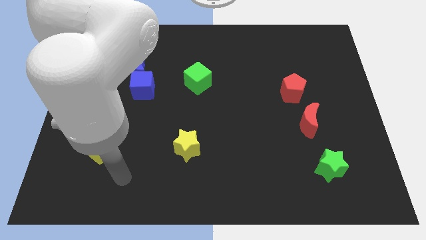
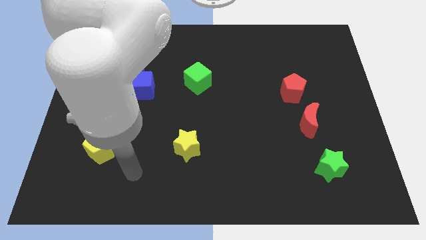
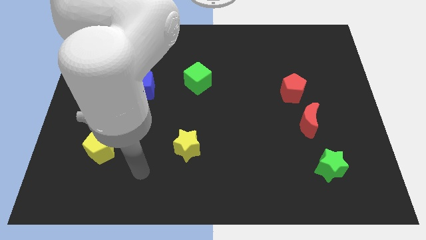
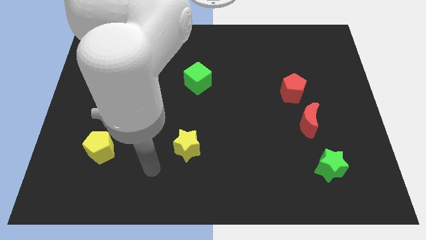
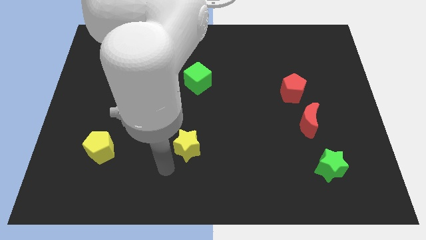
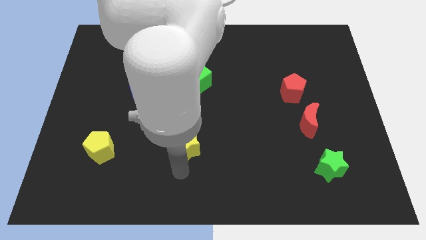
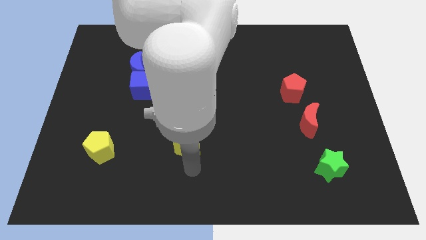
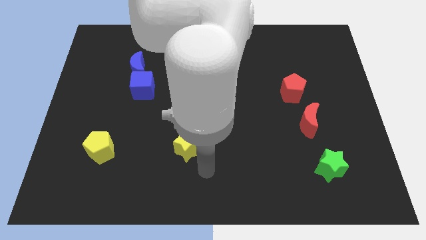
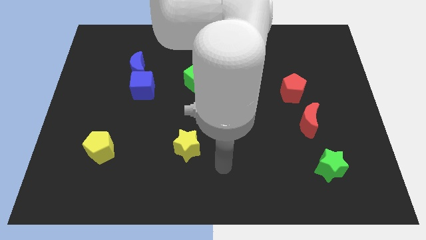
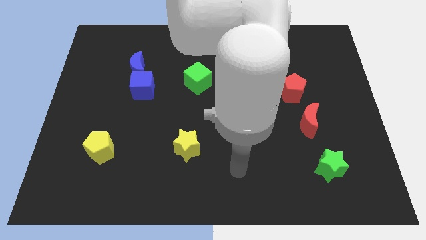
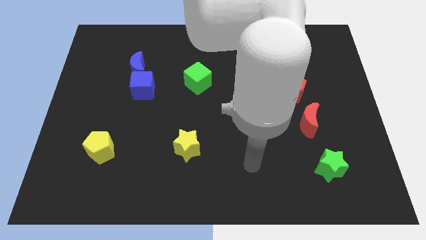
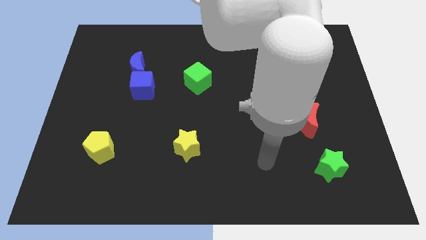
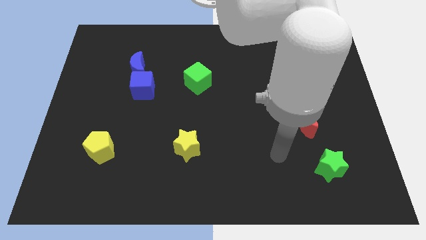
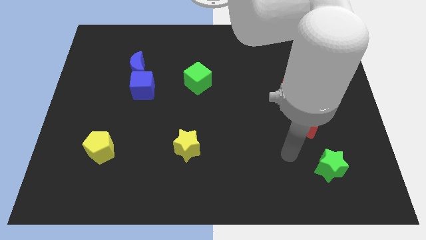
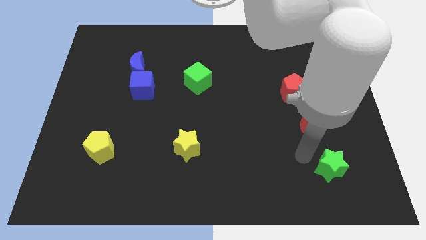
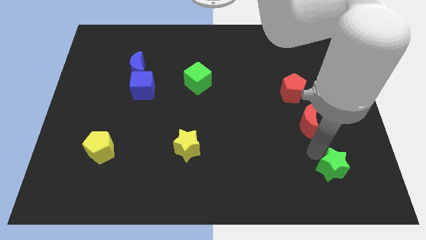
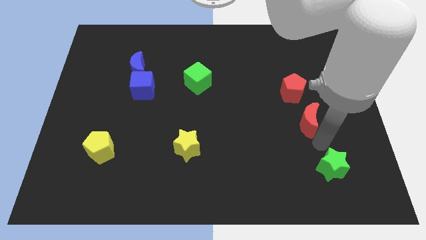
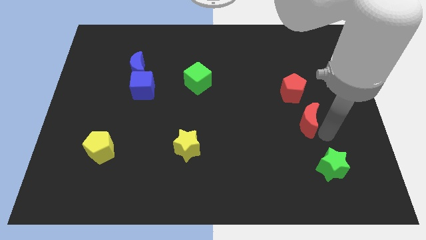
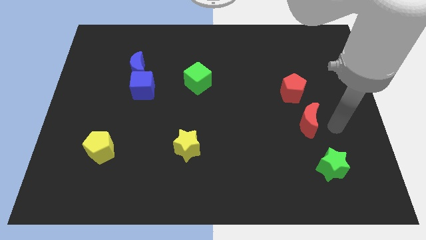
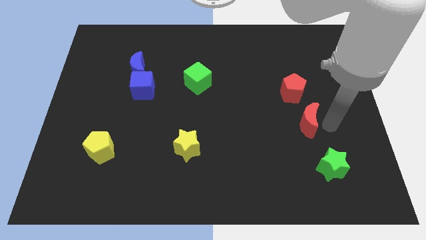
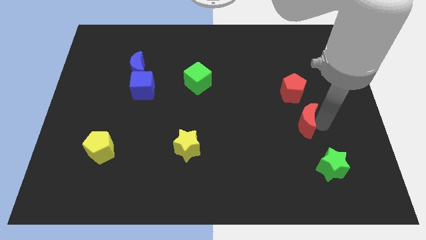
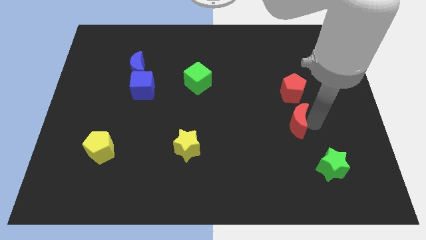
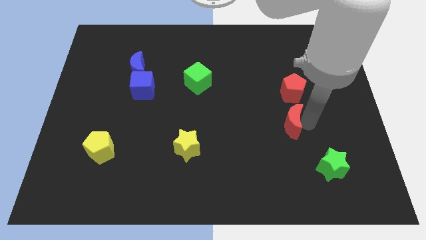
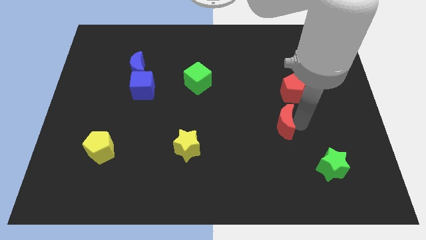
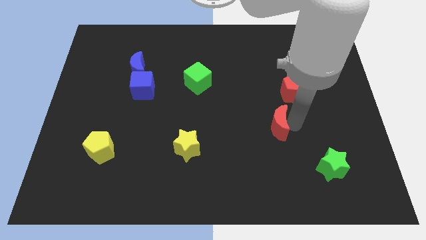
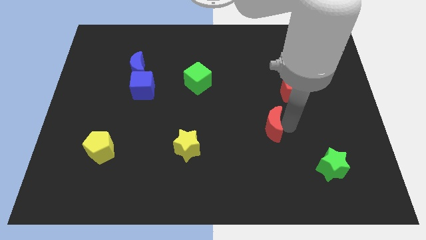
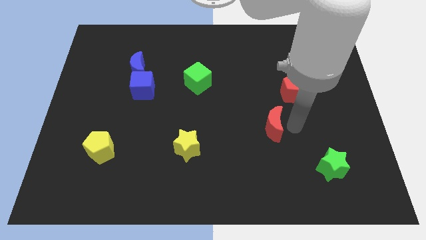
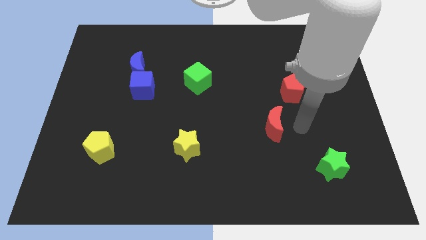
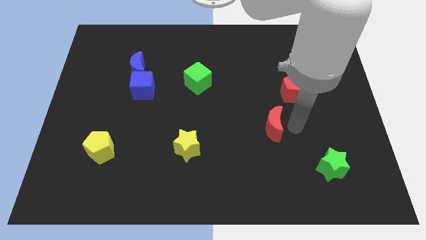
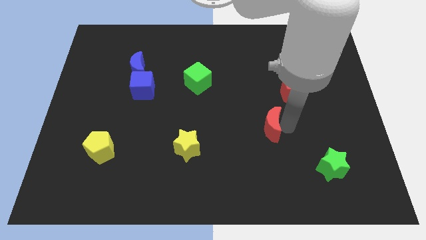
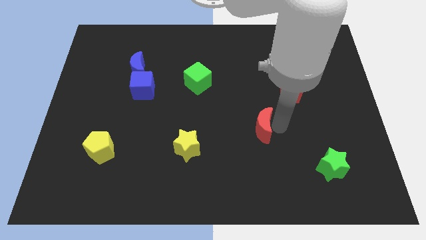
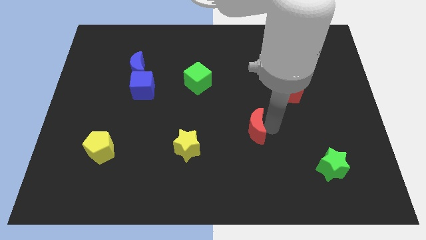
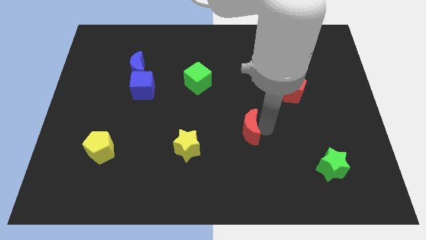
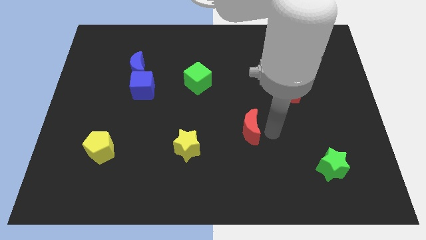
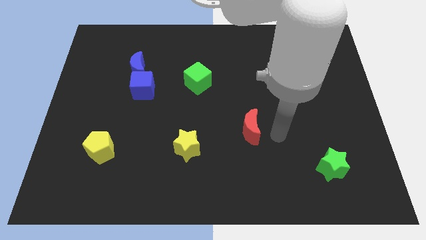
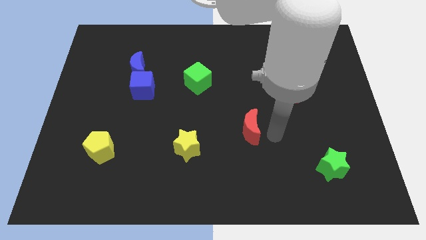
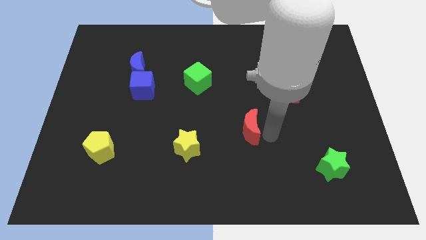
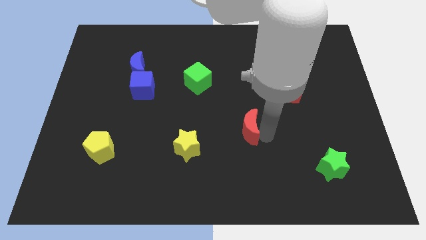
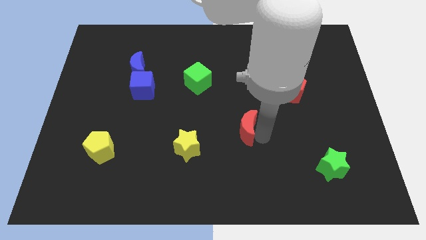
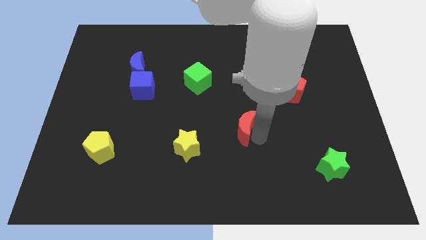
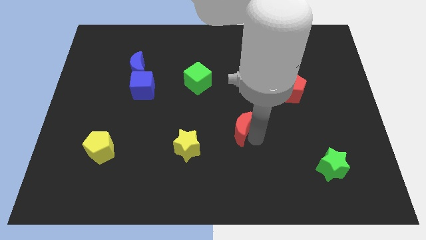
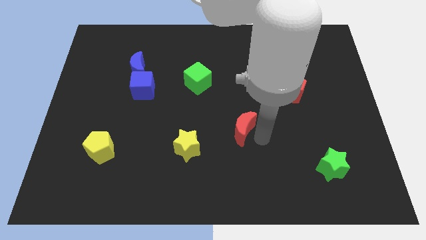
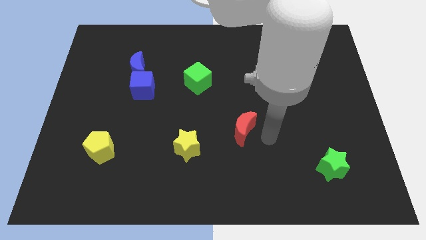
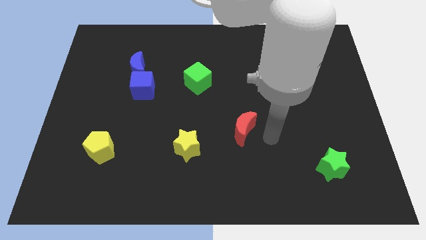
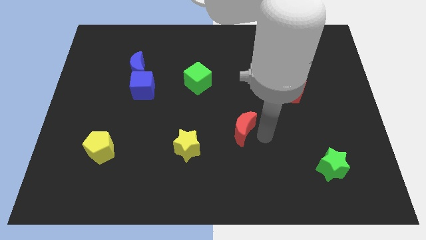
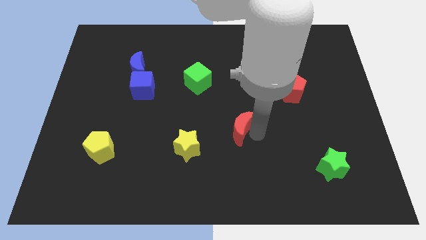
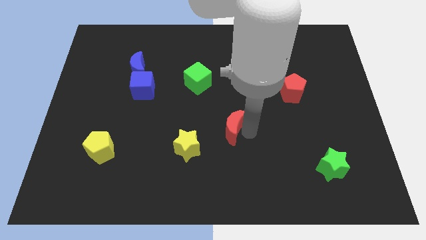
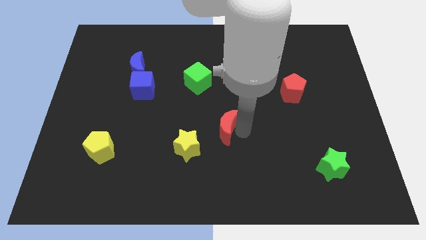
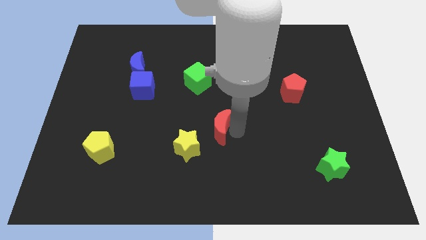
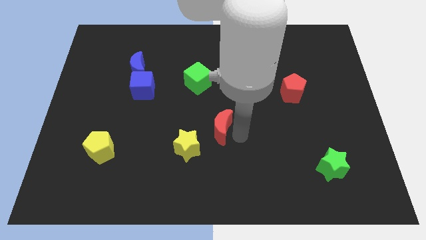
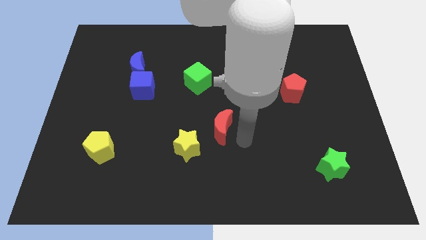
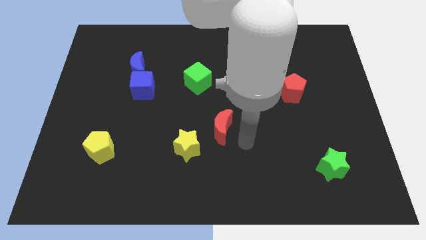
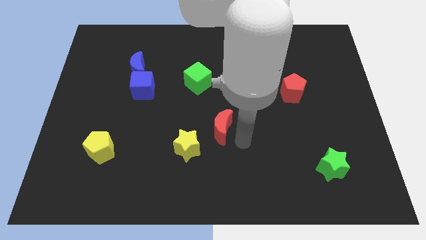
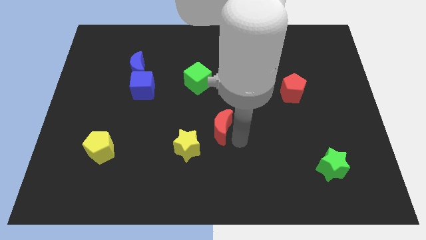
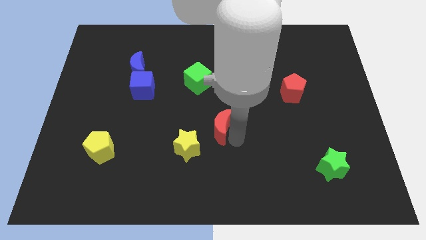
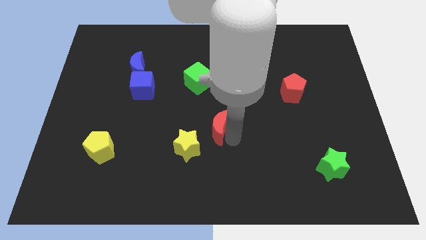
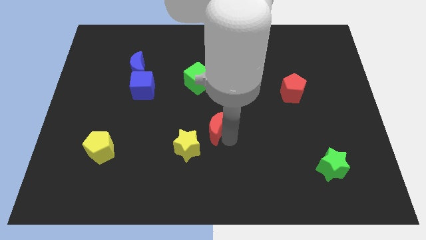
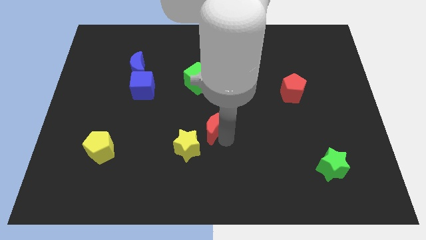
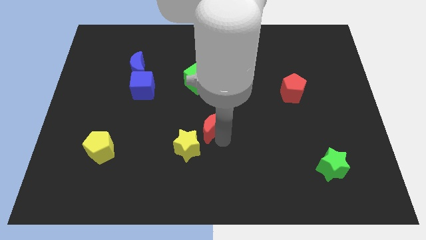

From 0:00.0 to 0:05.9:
move the red moon to the bottom side of the green cube
